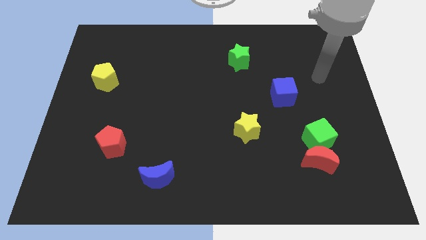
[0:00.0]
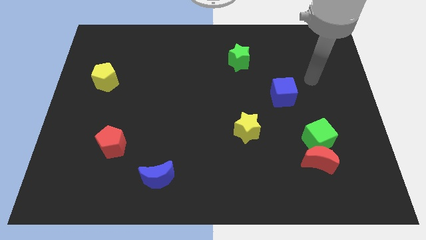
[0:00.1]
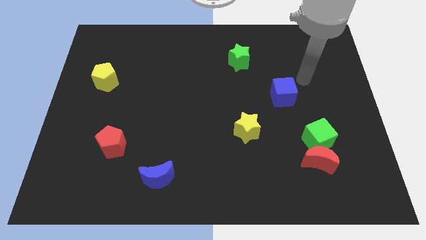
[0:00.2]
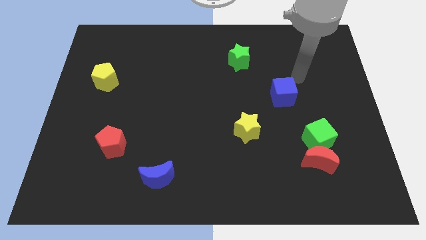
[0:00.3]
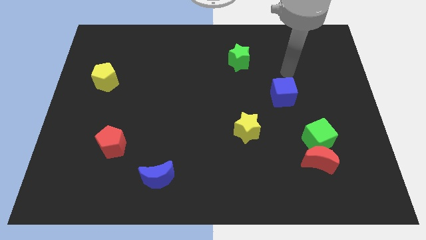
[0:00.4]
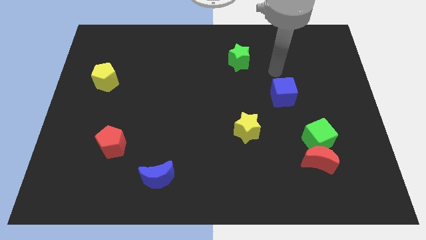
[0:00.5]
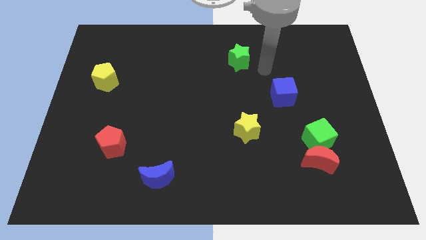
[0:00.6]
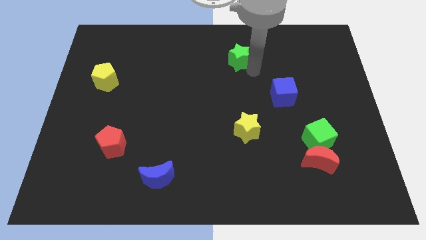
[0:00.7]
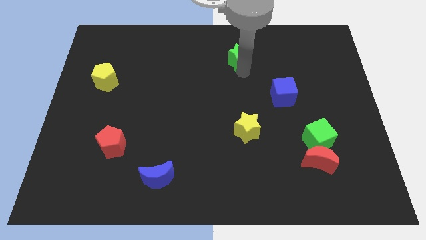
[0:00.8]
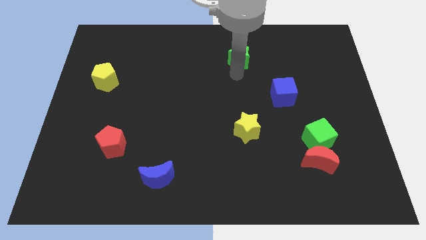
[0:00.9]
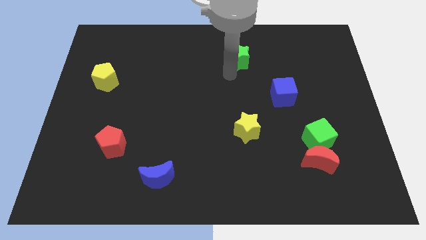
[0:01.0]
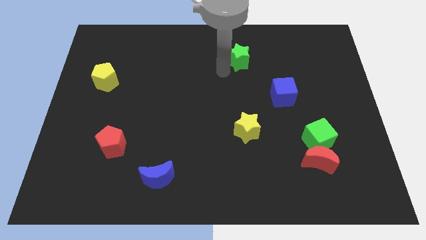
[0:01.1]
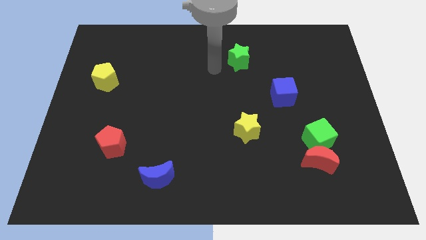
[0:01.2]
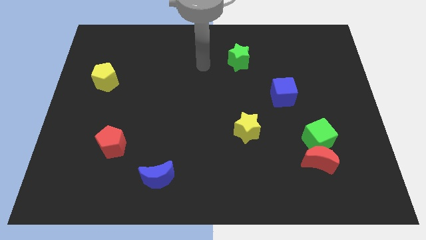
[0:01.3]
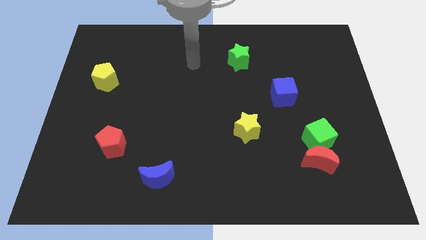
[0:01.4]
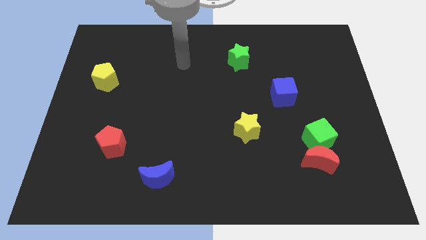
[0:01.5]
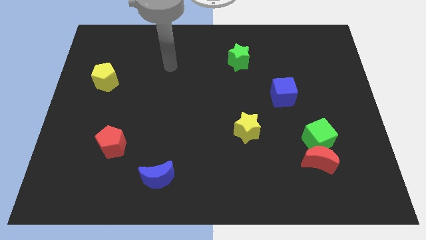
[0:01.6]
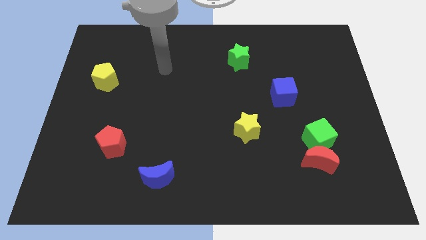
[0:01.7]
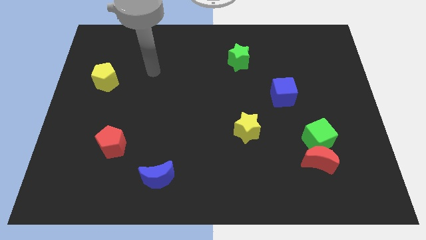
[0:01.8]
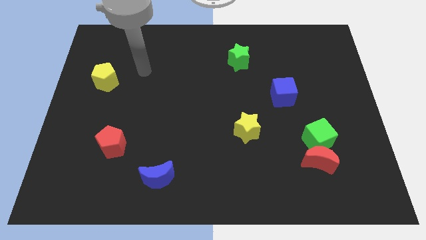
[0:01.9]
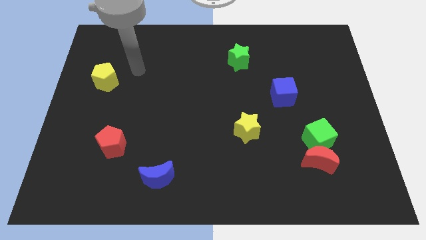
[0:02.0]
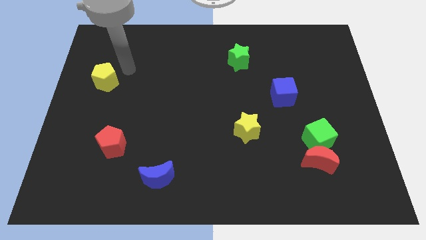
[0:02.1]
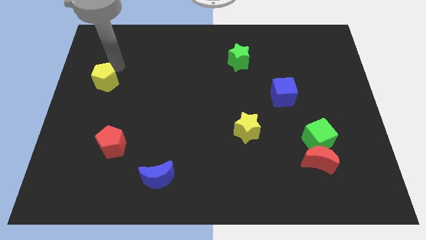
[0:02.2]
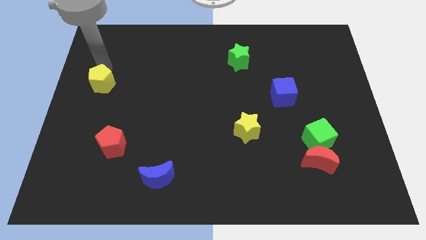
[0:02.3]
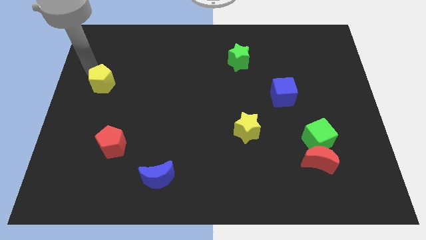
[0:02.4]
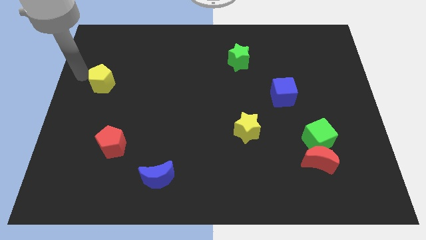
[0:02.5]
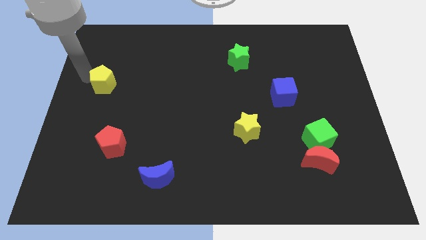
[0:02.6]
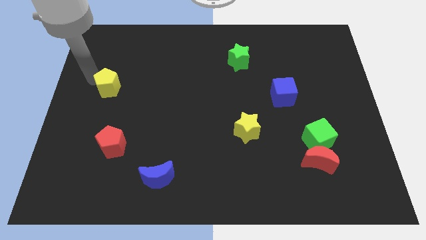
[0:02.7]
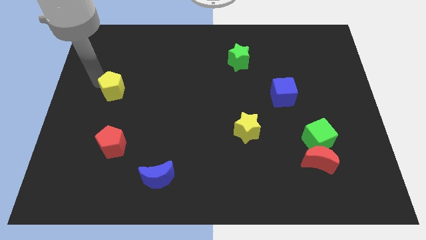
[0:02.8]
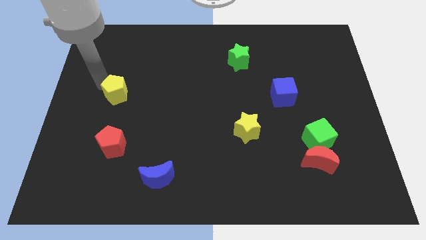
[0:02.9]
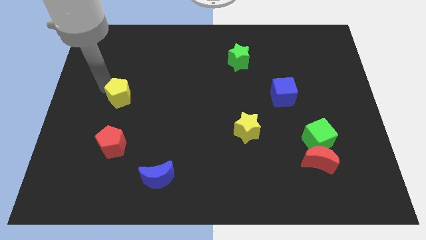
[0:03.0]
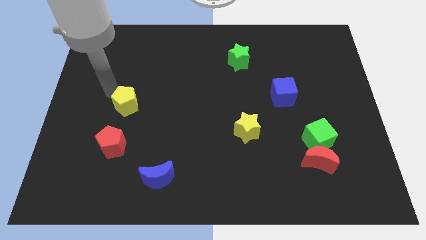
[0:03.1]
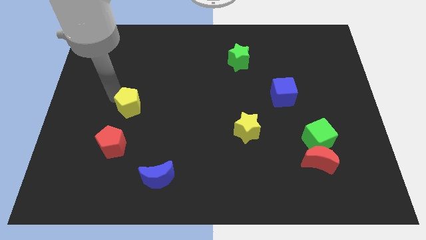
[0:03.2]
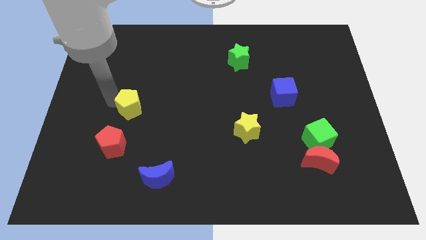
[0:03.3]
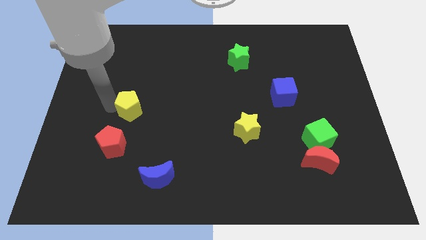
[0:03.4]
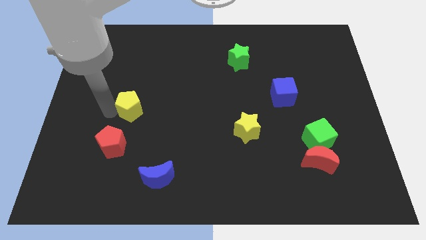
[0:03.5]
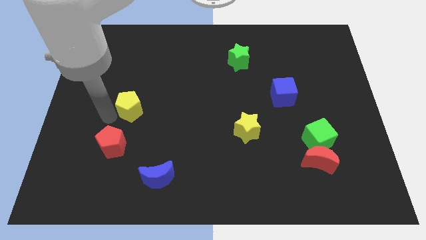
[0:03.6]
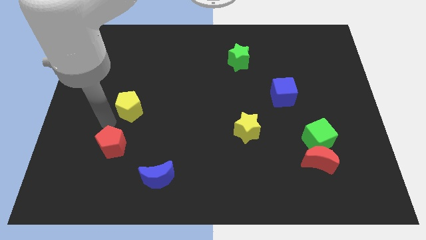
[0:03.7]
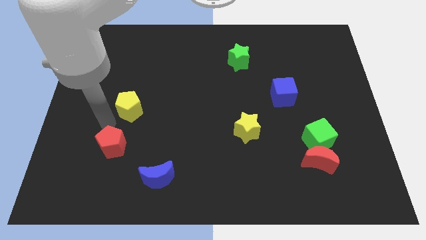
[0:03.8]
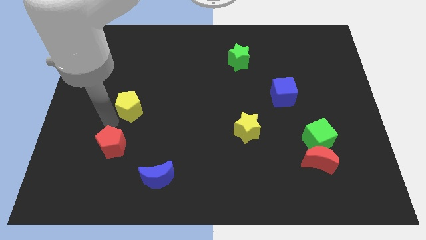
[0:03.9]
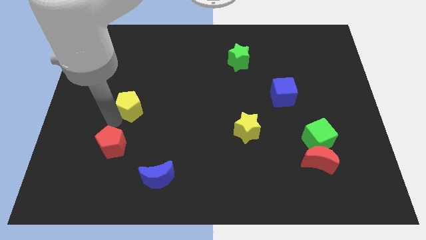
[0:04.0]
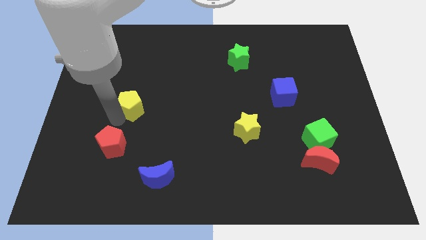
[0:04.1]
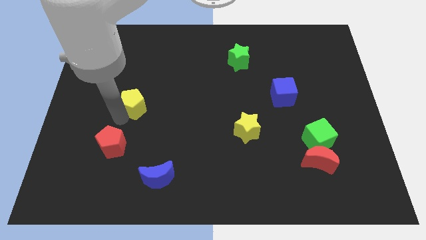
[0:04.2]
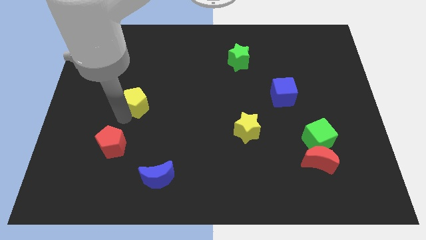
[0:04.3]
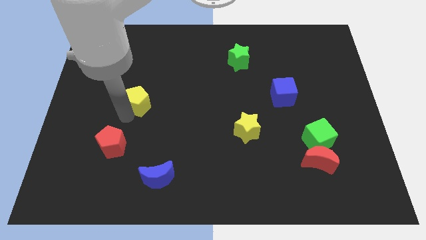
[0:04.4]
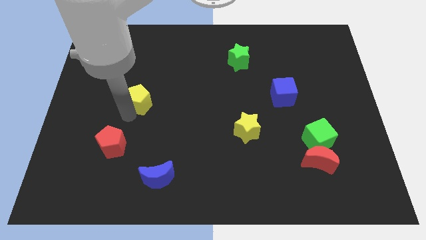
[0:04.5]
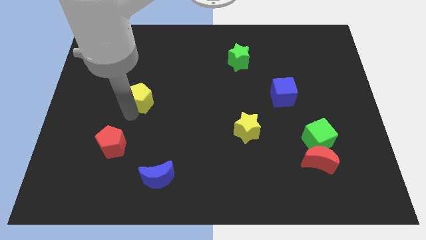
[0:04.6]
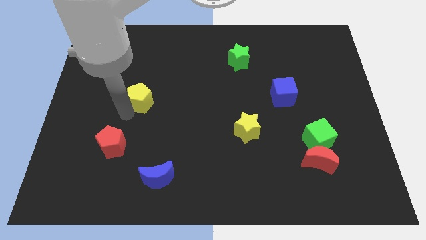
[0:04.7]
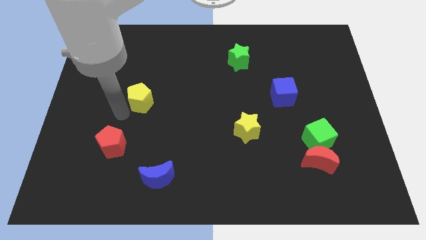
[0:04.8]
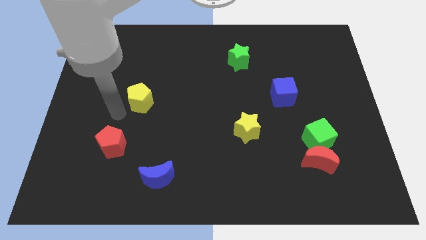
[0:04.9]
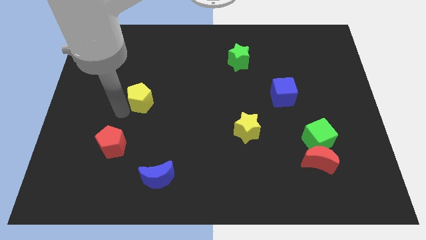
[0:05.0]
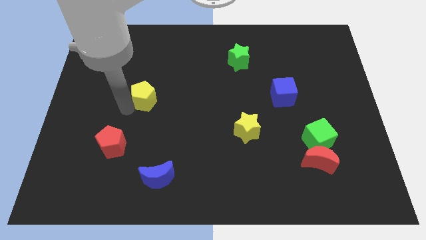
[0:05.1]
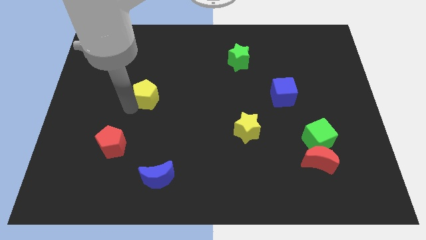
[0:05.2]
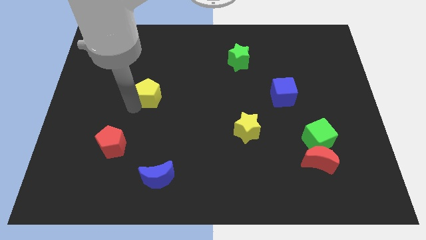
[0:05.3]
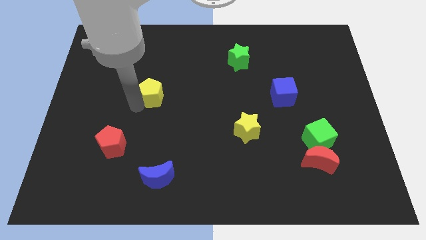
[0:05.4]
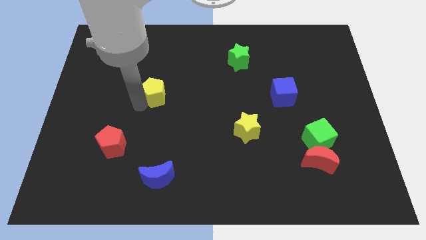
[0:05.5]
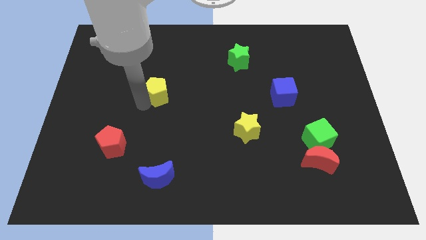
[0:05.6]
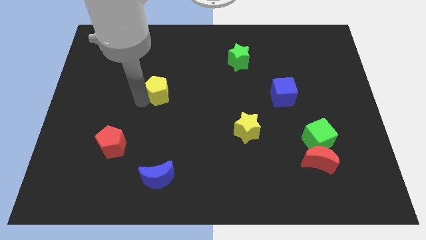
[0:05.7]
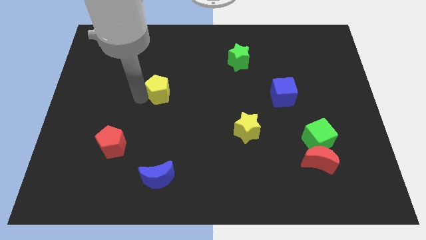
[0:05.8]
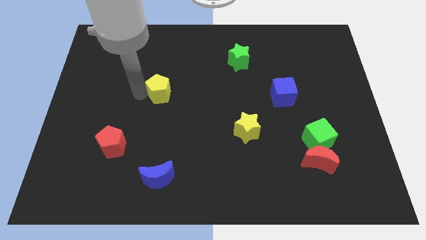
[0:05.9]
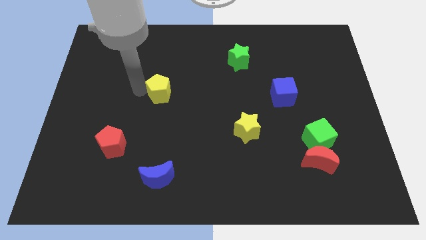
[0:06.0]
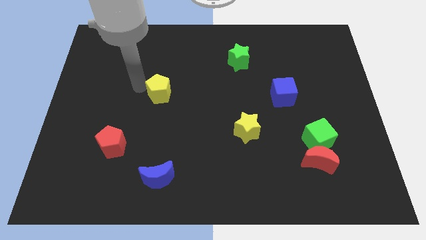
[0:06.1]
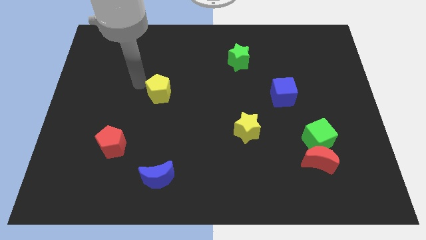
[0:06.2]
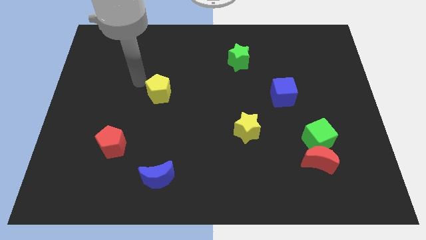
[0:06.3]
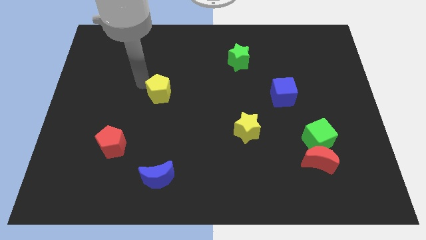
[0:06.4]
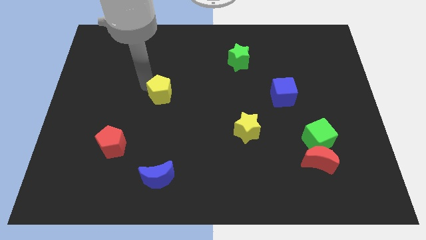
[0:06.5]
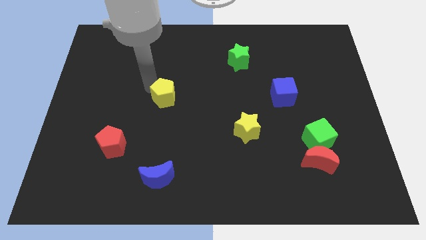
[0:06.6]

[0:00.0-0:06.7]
put the yellow pentagon to the center
